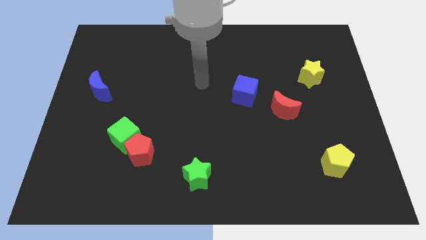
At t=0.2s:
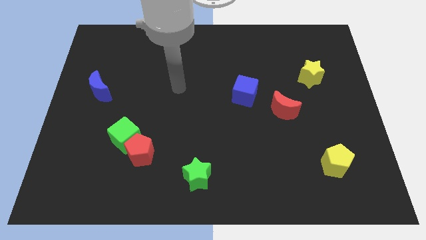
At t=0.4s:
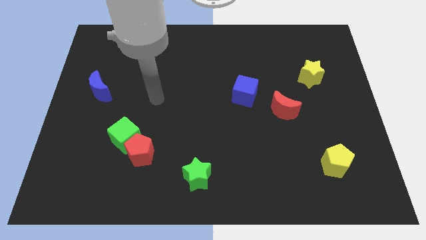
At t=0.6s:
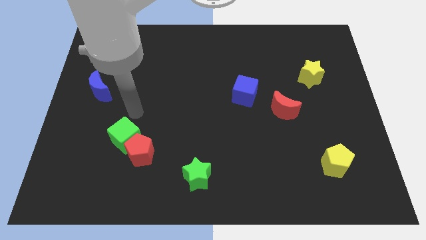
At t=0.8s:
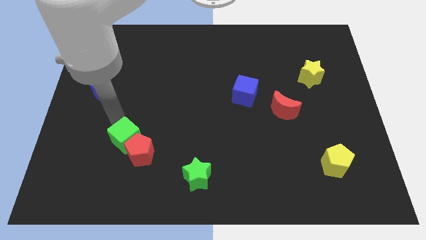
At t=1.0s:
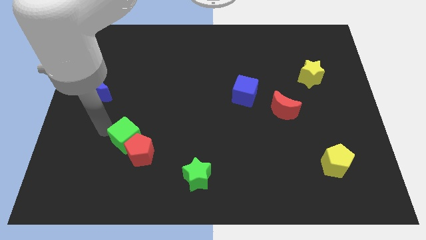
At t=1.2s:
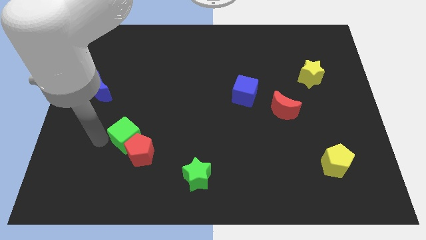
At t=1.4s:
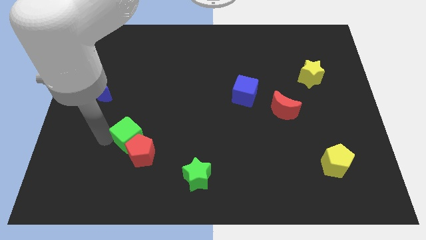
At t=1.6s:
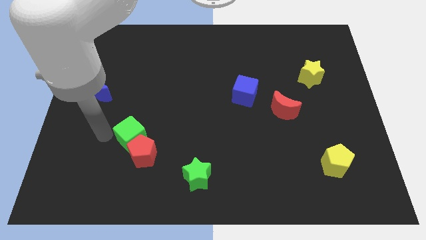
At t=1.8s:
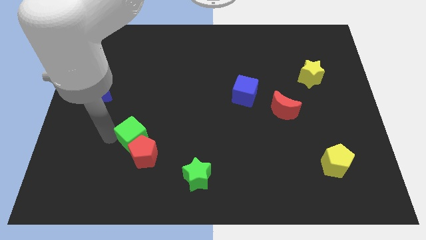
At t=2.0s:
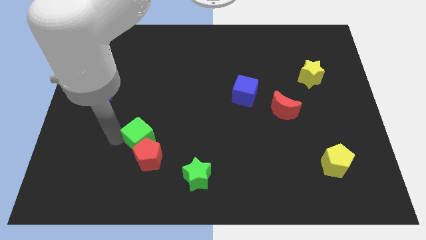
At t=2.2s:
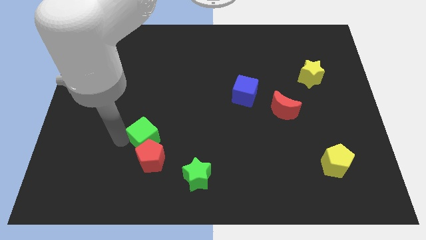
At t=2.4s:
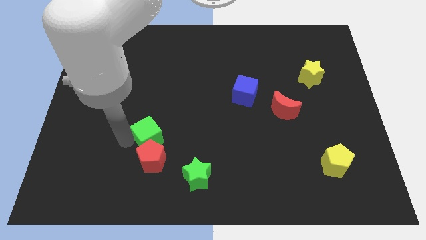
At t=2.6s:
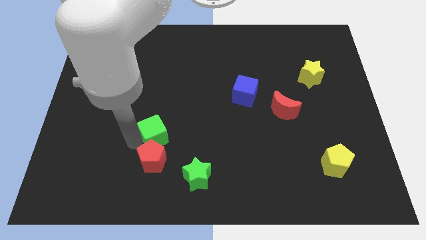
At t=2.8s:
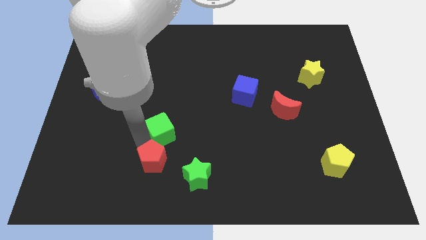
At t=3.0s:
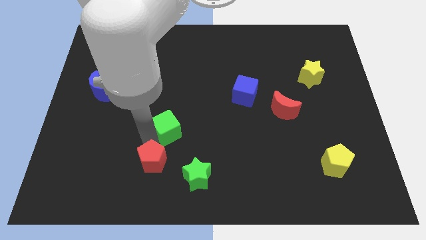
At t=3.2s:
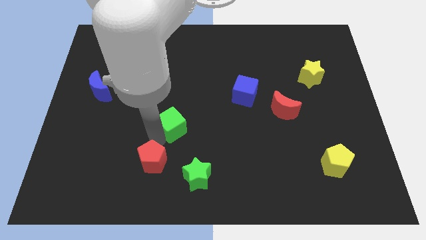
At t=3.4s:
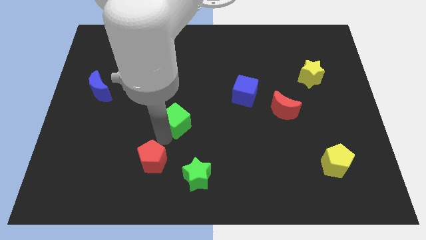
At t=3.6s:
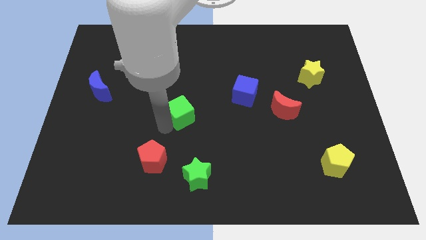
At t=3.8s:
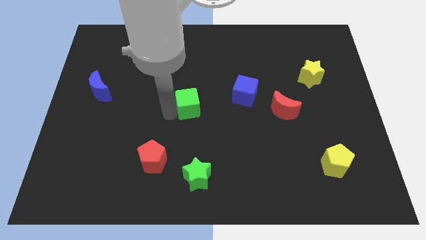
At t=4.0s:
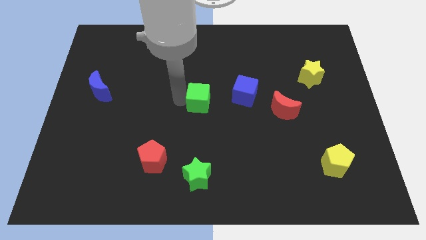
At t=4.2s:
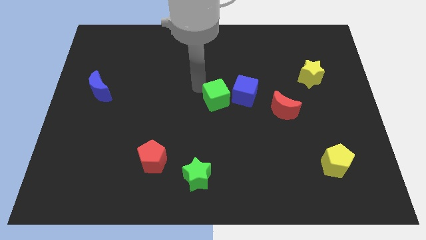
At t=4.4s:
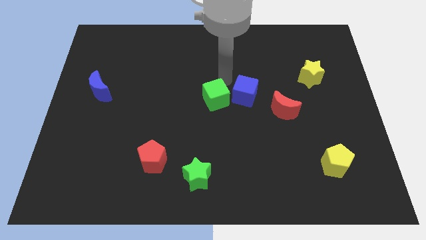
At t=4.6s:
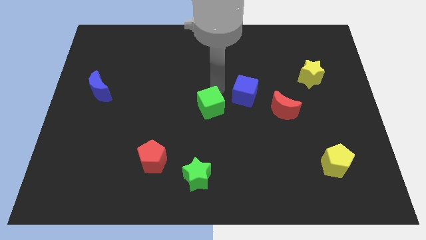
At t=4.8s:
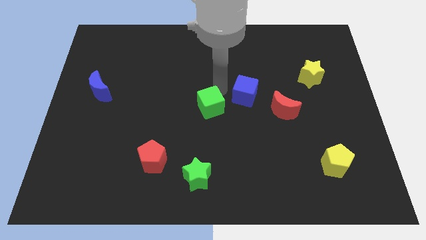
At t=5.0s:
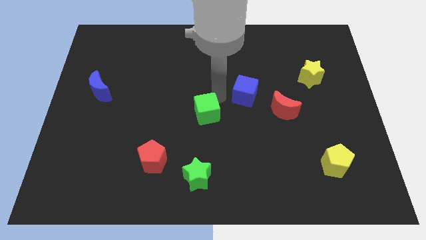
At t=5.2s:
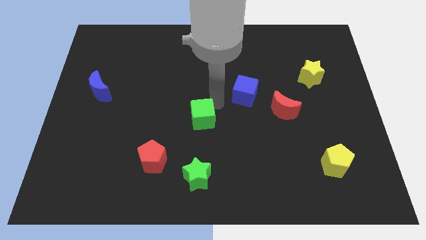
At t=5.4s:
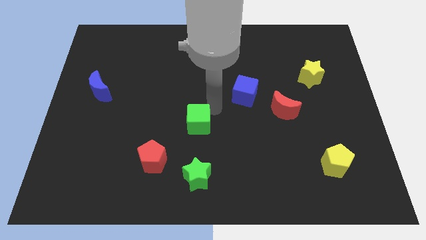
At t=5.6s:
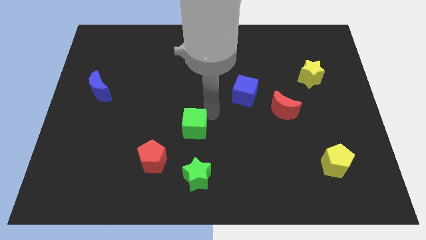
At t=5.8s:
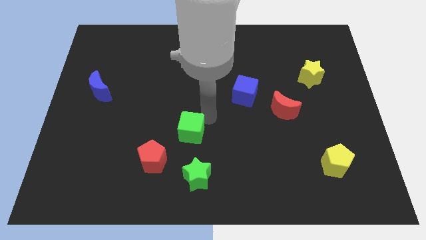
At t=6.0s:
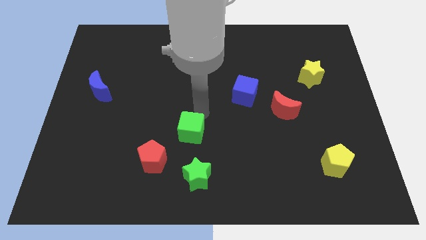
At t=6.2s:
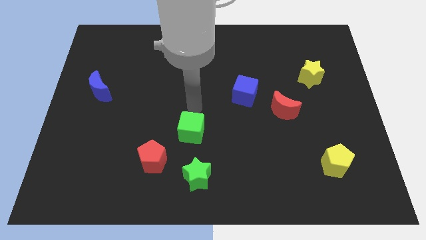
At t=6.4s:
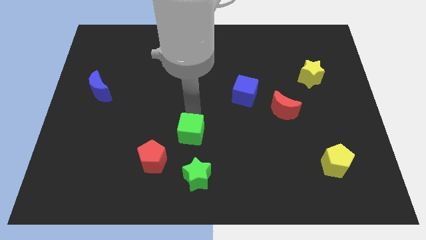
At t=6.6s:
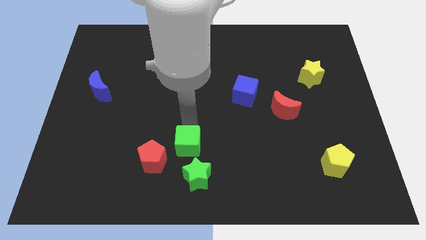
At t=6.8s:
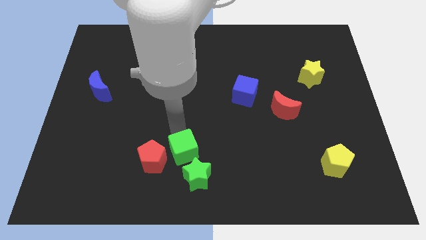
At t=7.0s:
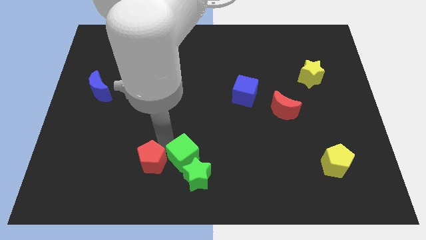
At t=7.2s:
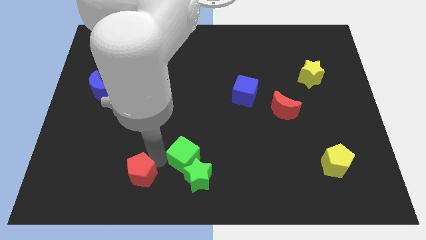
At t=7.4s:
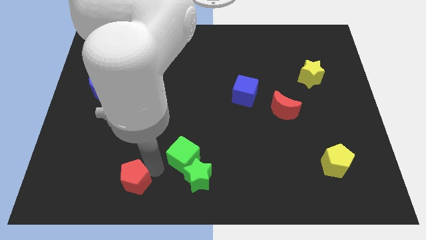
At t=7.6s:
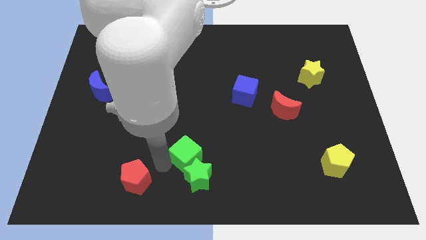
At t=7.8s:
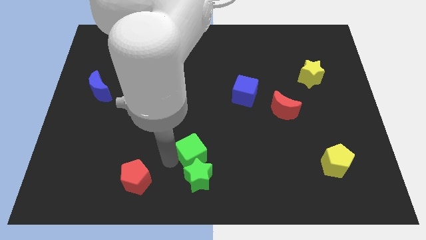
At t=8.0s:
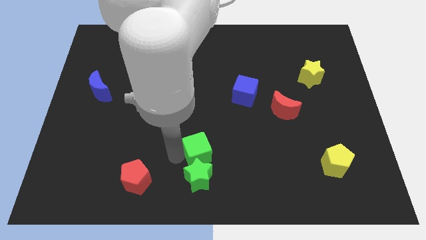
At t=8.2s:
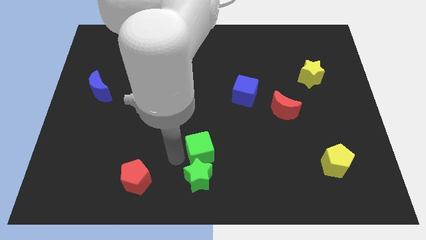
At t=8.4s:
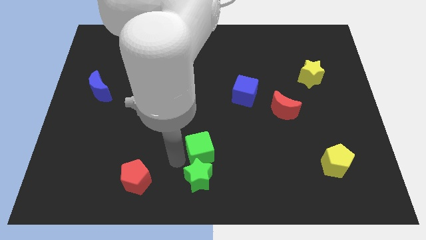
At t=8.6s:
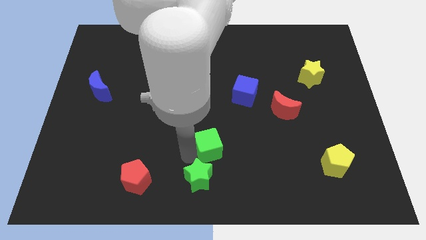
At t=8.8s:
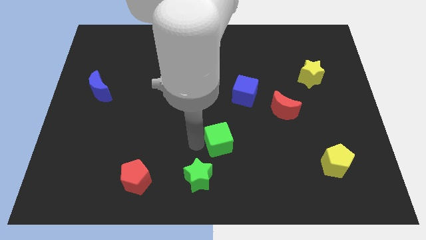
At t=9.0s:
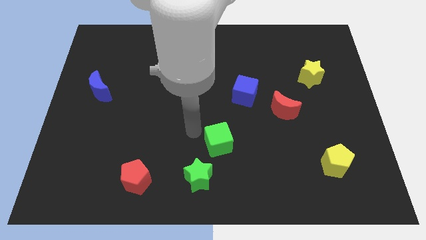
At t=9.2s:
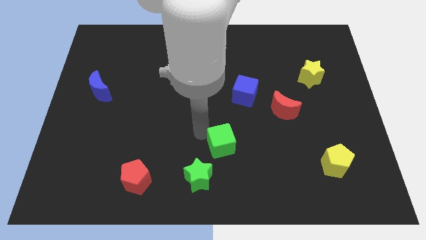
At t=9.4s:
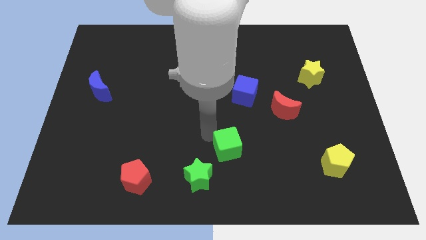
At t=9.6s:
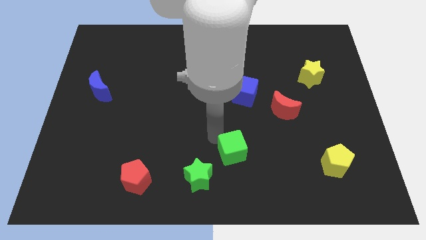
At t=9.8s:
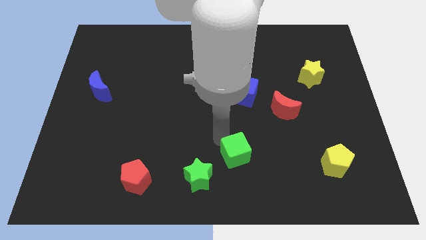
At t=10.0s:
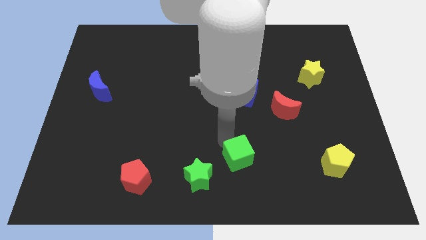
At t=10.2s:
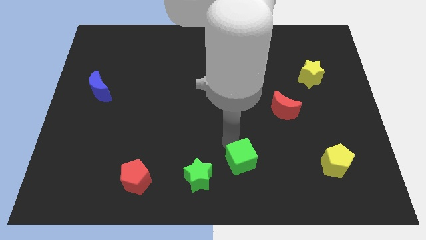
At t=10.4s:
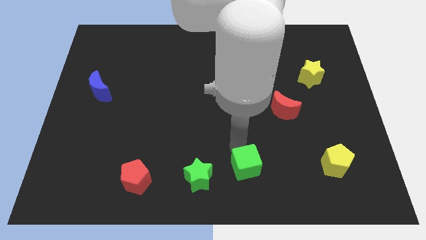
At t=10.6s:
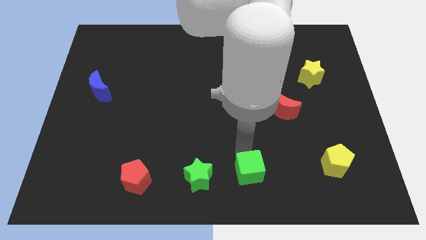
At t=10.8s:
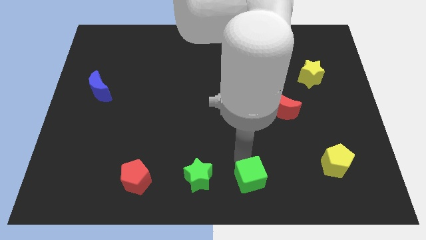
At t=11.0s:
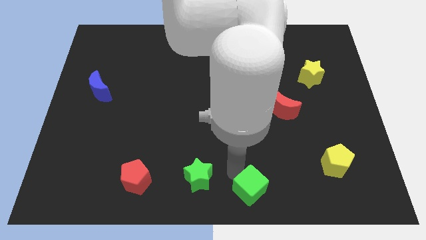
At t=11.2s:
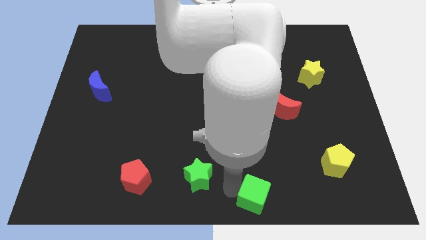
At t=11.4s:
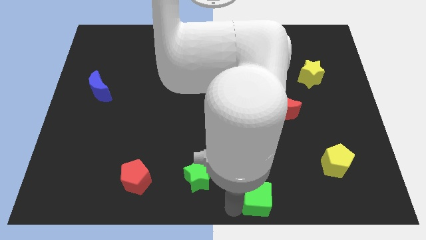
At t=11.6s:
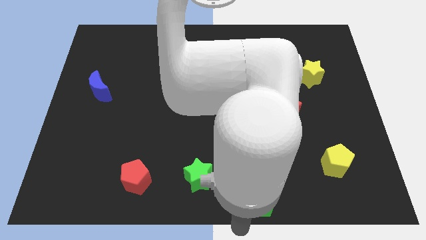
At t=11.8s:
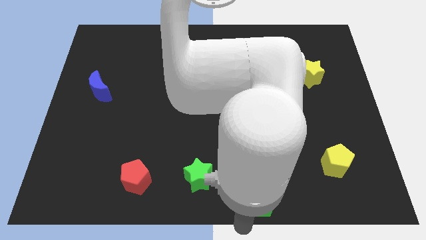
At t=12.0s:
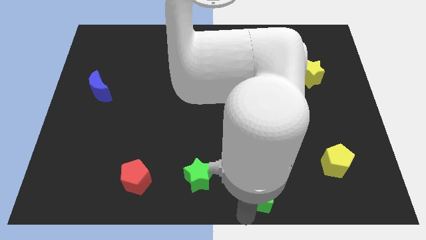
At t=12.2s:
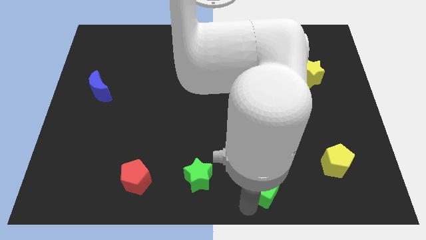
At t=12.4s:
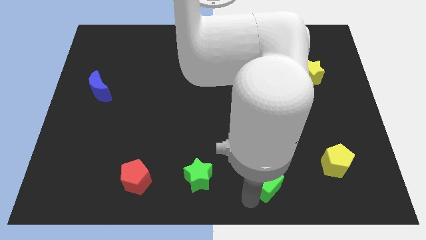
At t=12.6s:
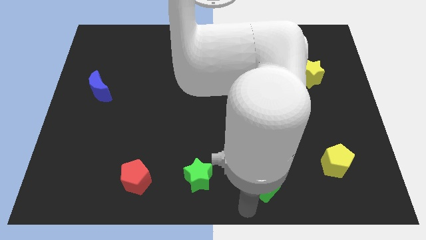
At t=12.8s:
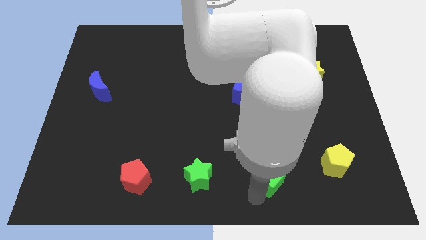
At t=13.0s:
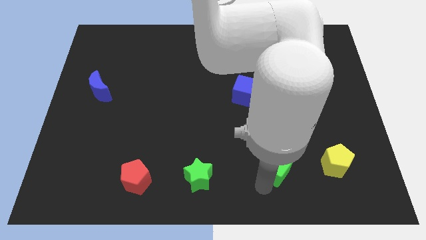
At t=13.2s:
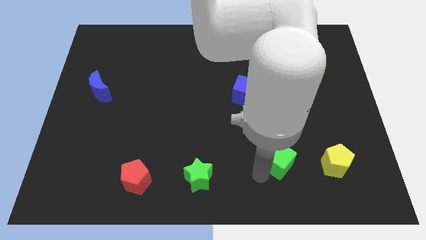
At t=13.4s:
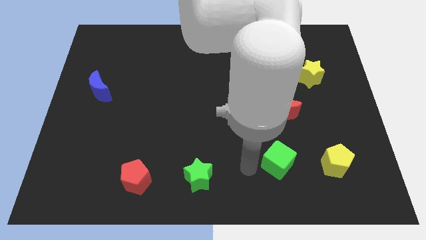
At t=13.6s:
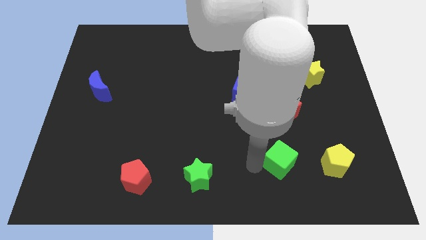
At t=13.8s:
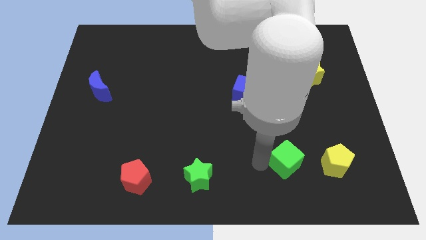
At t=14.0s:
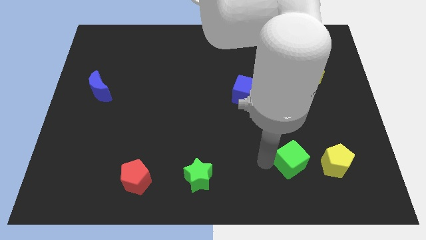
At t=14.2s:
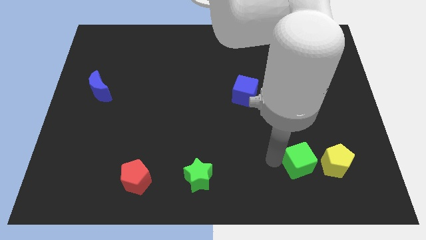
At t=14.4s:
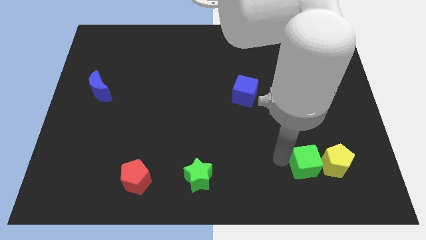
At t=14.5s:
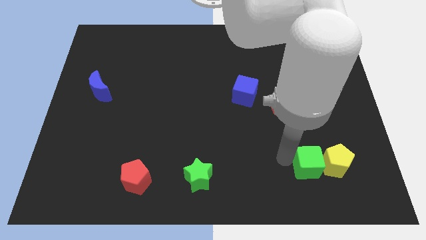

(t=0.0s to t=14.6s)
move the green cube next to the yellow pentagon
